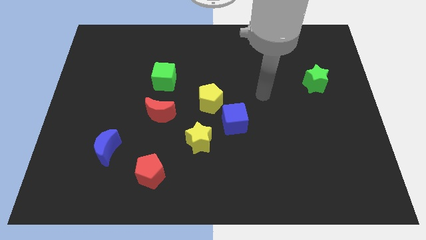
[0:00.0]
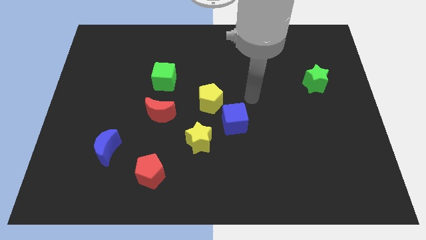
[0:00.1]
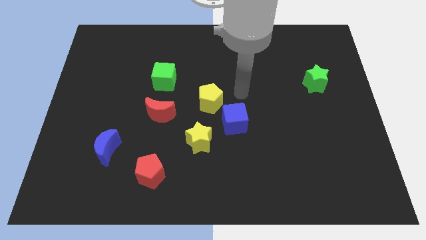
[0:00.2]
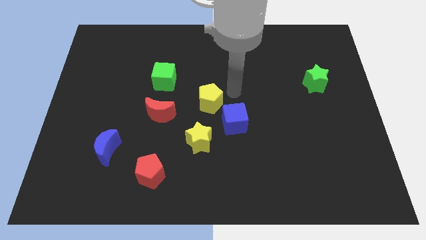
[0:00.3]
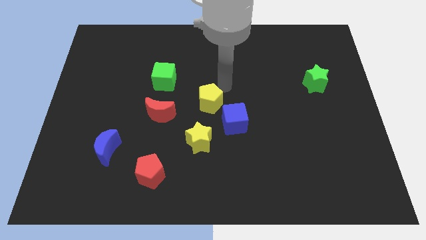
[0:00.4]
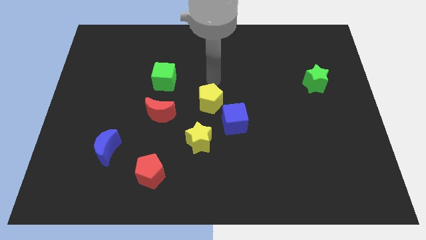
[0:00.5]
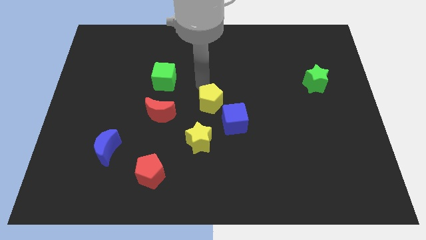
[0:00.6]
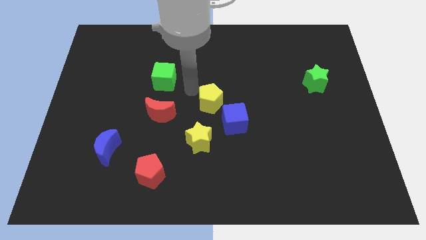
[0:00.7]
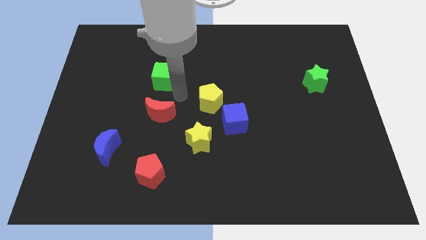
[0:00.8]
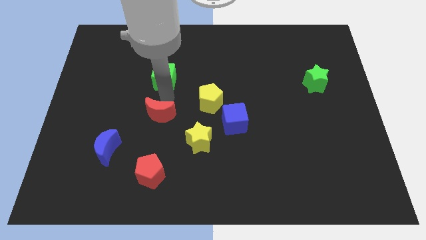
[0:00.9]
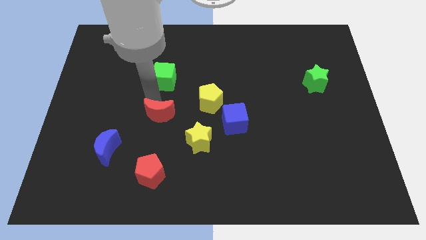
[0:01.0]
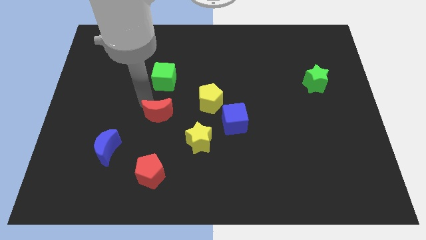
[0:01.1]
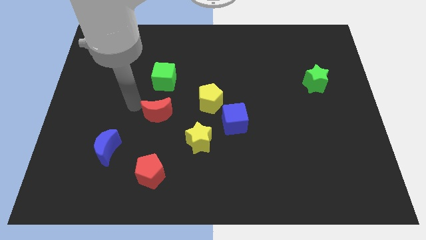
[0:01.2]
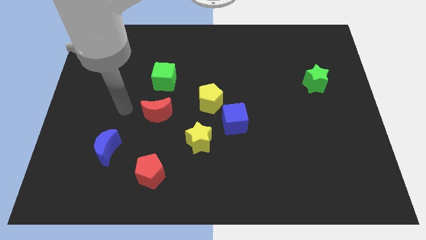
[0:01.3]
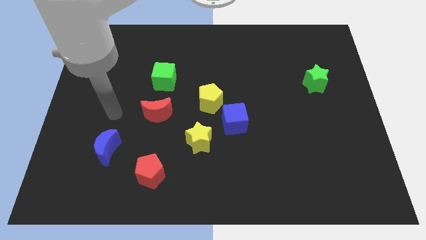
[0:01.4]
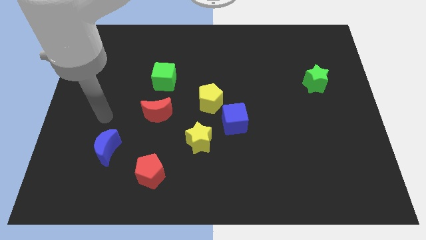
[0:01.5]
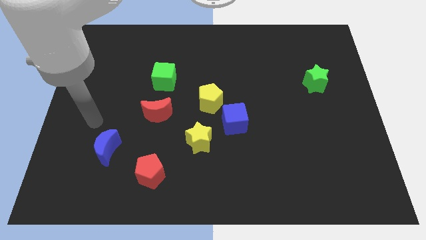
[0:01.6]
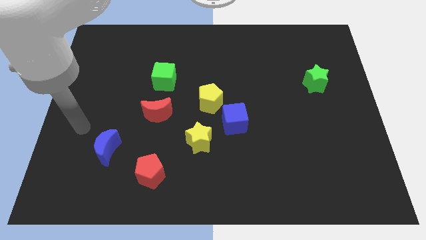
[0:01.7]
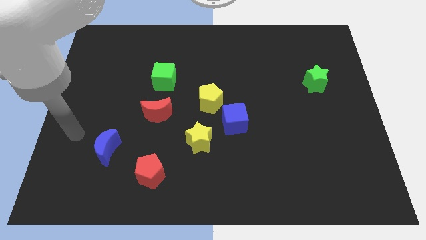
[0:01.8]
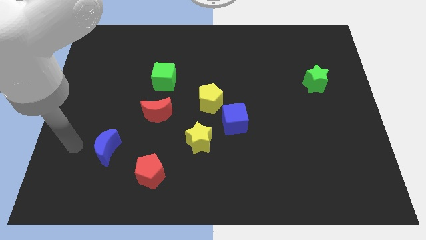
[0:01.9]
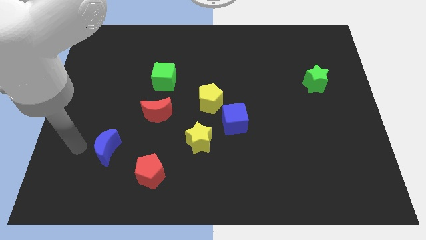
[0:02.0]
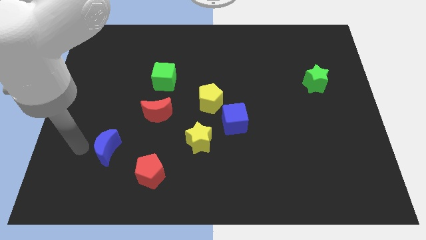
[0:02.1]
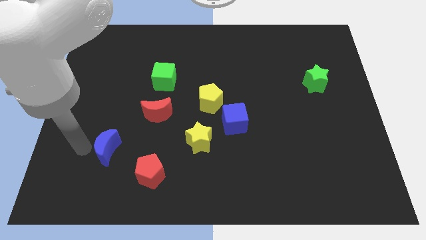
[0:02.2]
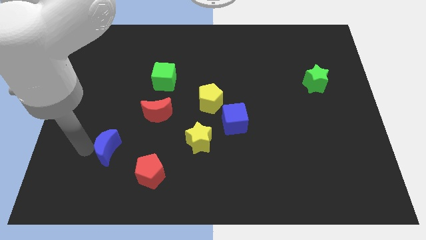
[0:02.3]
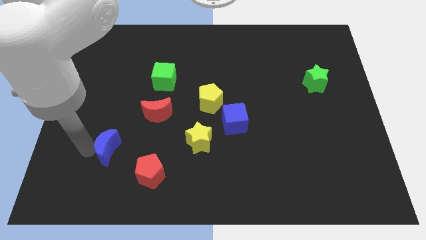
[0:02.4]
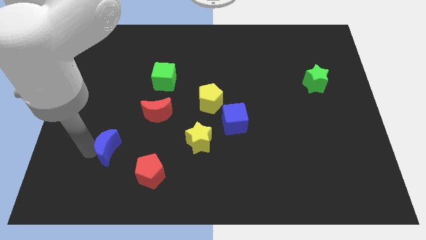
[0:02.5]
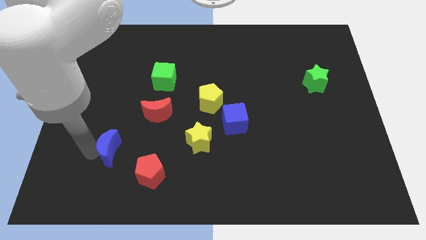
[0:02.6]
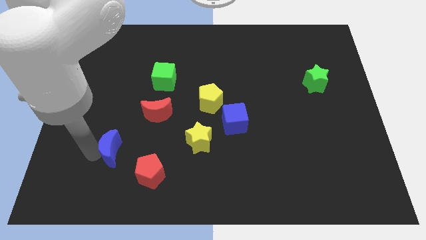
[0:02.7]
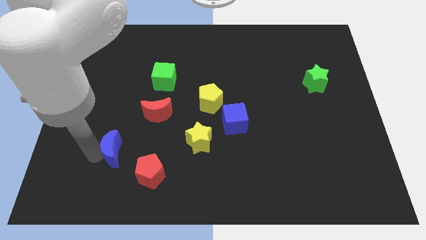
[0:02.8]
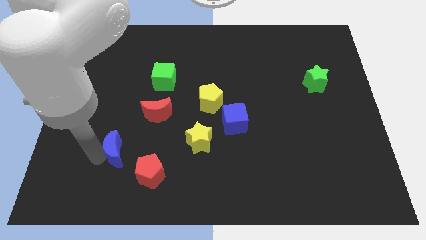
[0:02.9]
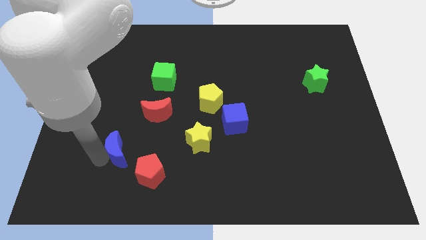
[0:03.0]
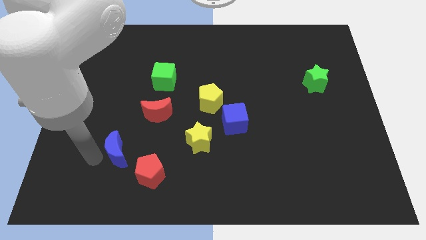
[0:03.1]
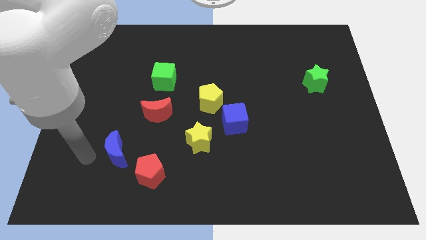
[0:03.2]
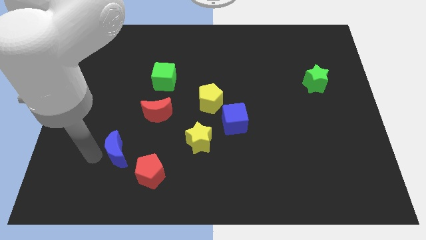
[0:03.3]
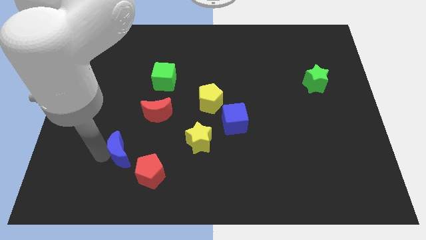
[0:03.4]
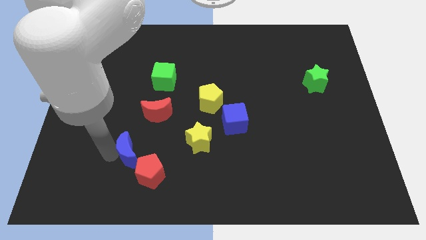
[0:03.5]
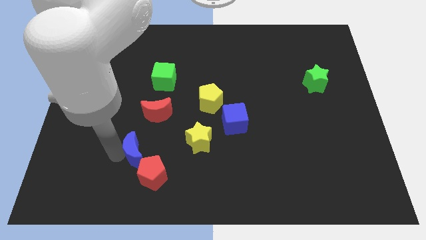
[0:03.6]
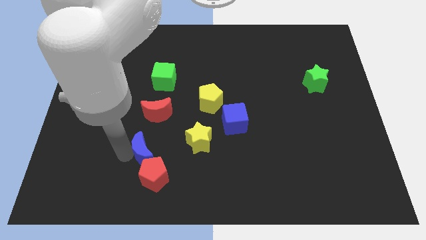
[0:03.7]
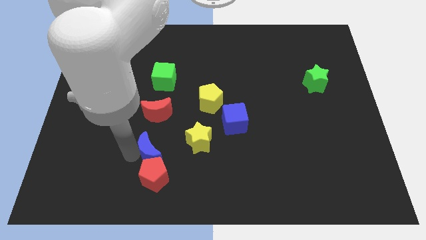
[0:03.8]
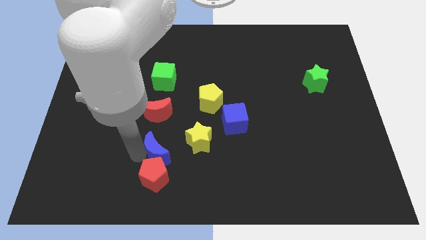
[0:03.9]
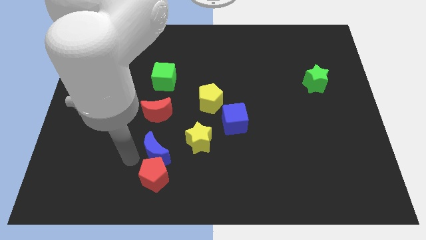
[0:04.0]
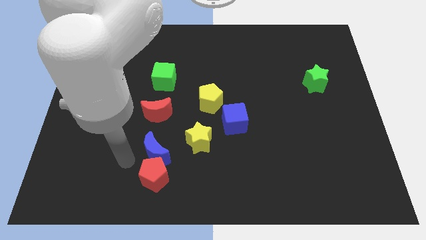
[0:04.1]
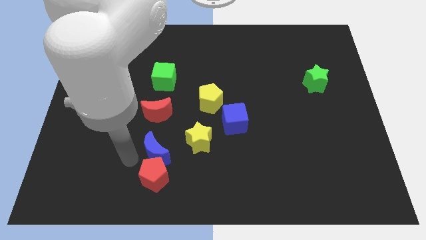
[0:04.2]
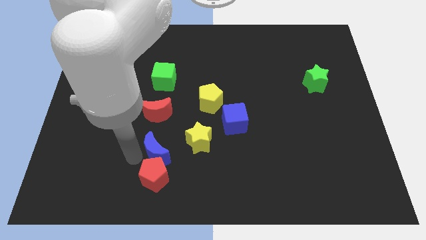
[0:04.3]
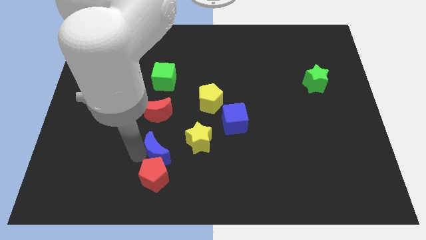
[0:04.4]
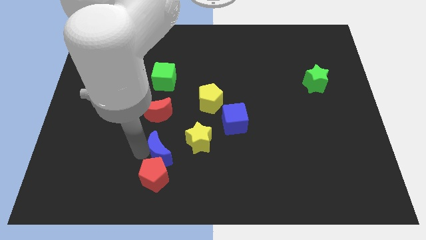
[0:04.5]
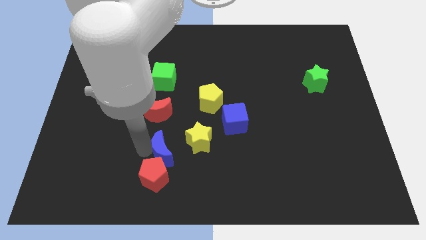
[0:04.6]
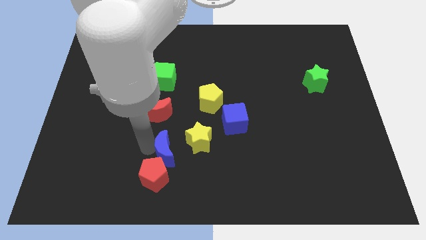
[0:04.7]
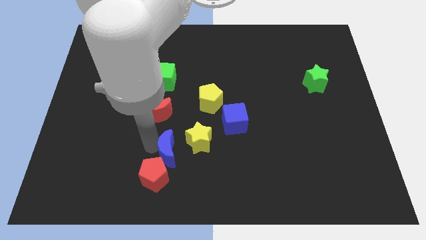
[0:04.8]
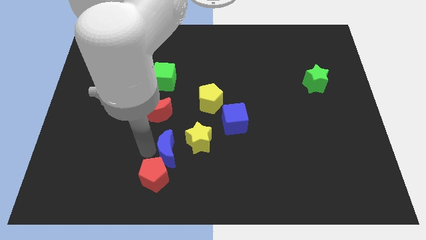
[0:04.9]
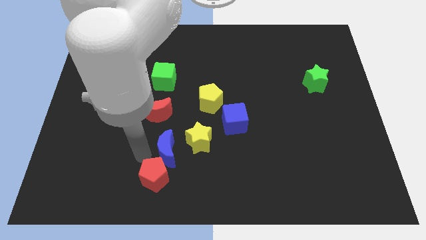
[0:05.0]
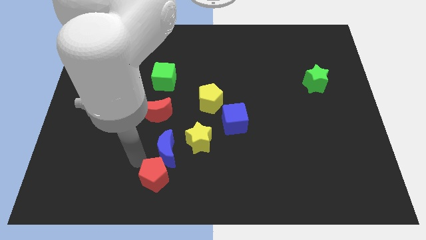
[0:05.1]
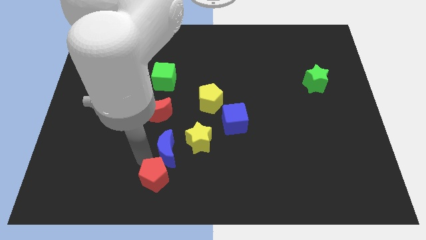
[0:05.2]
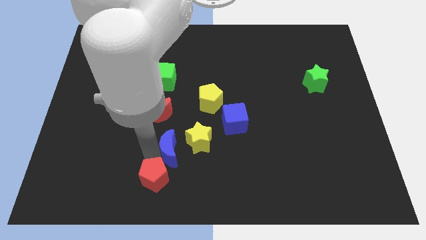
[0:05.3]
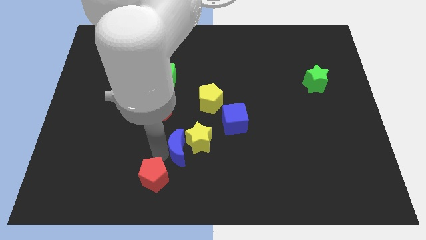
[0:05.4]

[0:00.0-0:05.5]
put the blue moon close to the yellow star

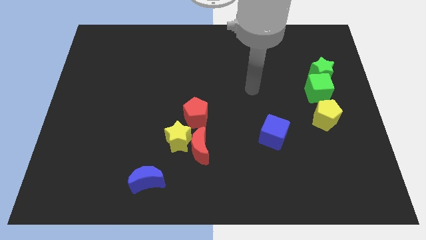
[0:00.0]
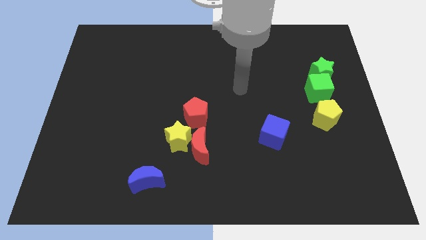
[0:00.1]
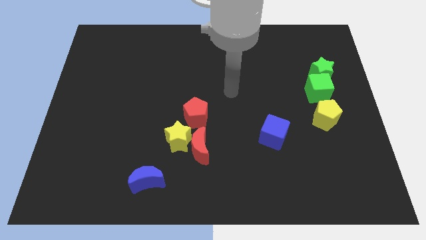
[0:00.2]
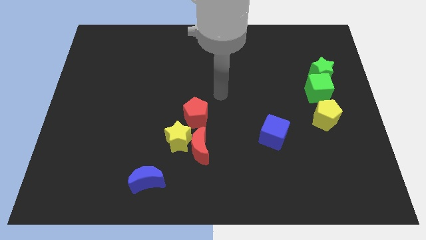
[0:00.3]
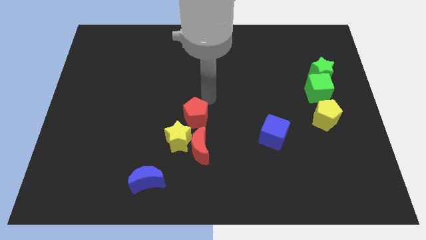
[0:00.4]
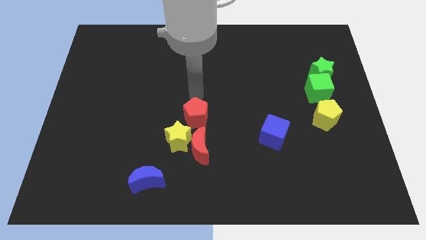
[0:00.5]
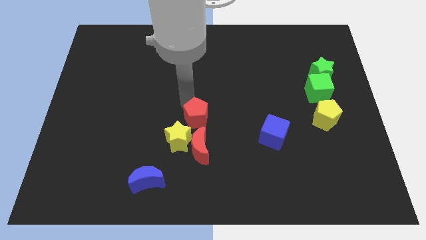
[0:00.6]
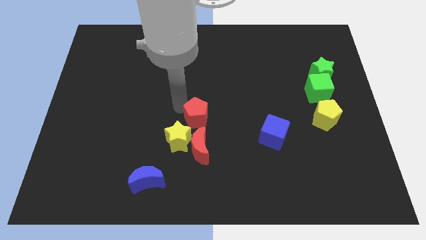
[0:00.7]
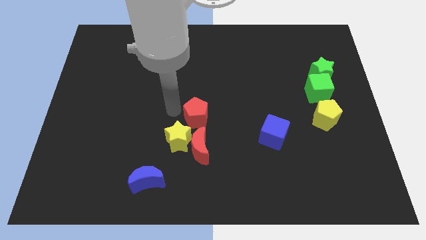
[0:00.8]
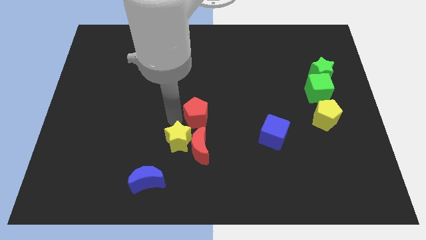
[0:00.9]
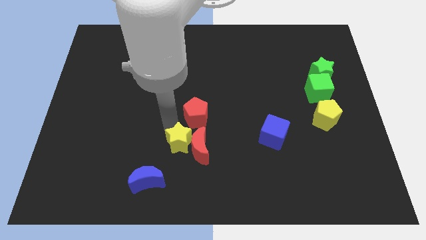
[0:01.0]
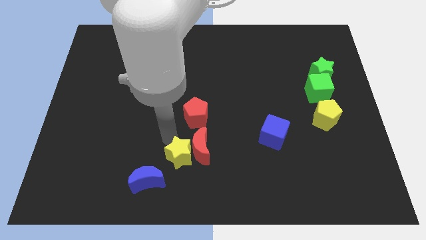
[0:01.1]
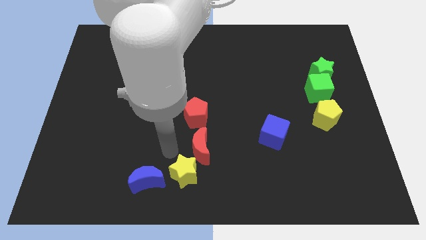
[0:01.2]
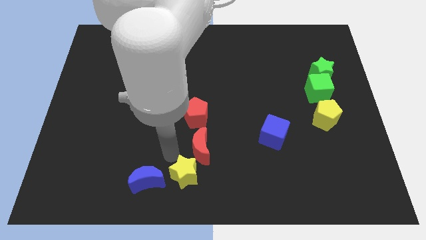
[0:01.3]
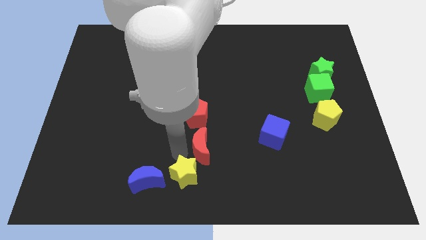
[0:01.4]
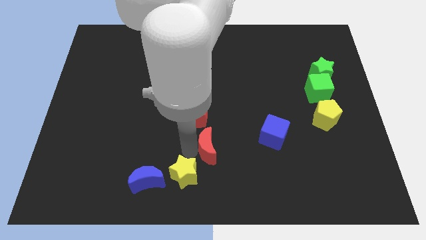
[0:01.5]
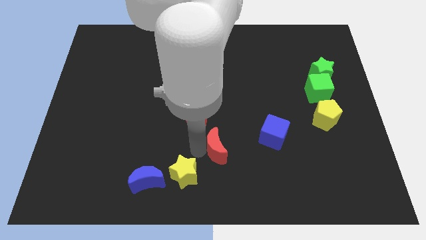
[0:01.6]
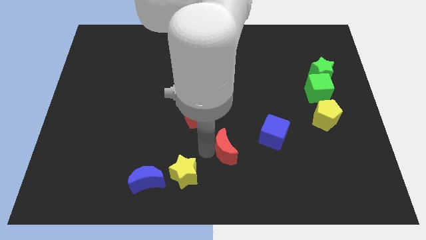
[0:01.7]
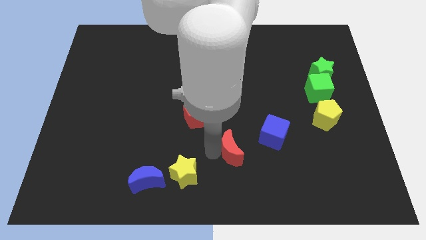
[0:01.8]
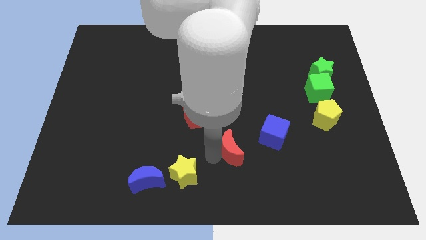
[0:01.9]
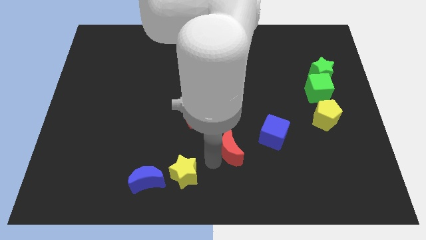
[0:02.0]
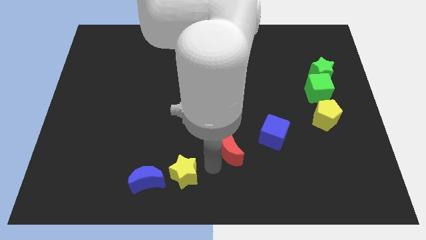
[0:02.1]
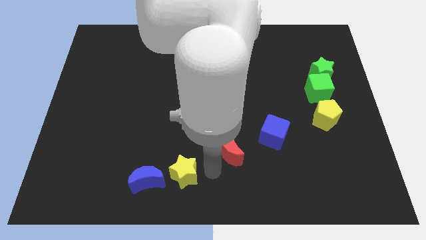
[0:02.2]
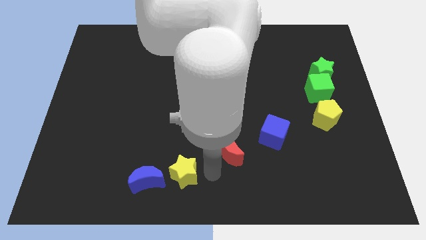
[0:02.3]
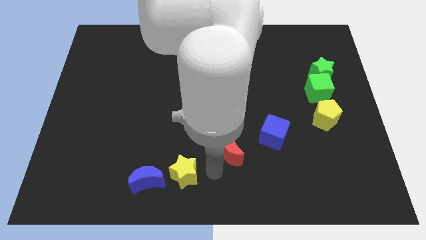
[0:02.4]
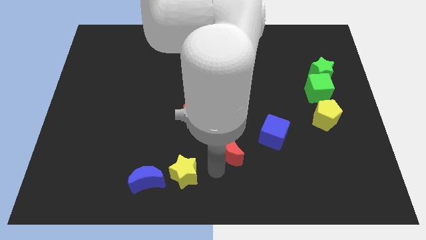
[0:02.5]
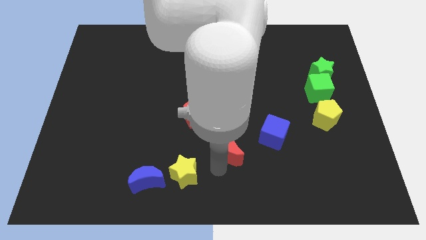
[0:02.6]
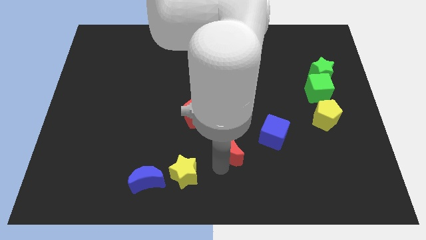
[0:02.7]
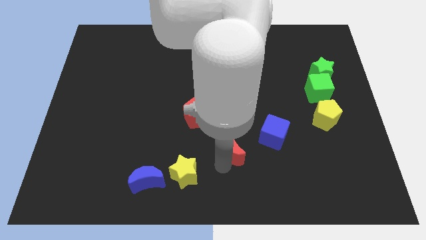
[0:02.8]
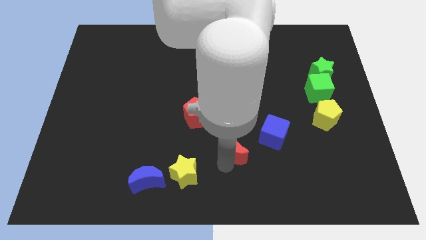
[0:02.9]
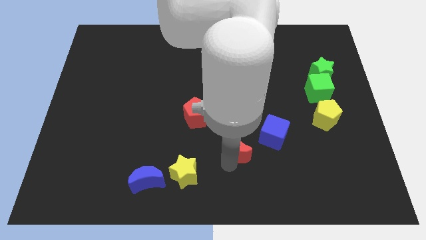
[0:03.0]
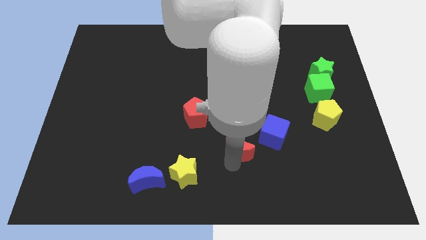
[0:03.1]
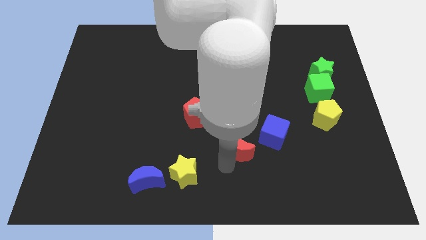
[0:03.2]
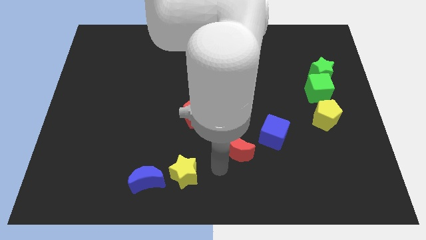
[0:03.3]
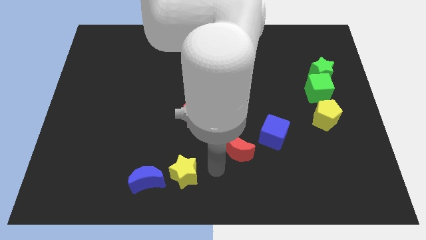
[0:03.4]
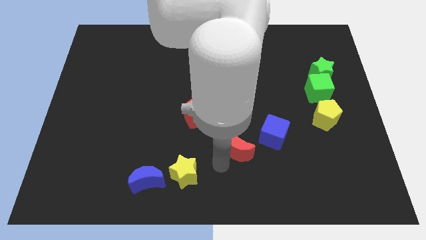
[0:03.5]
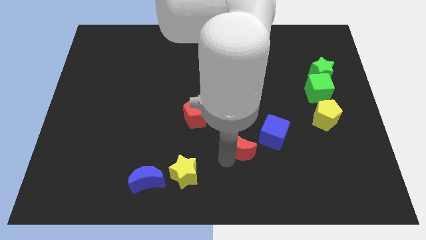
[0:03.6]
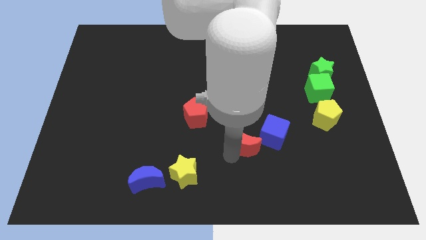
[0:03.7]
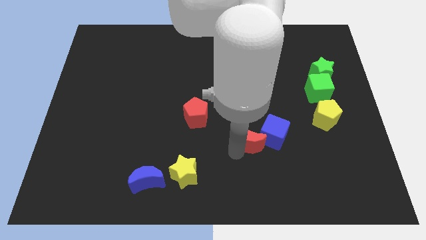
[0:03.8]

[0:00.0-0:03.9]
push the red moon next to the blue cube
